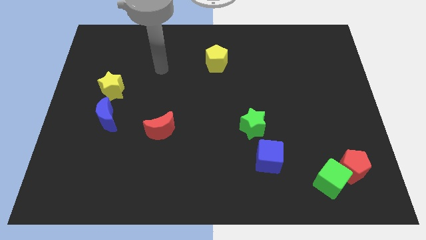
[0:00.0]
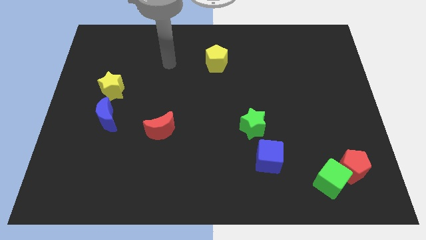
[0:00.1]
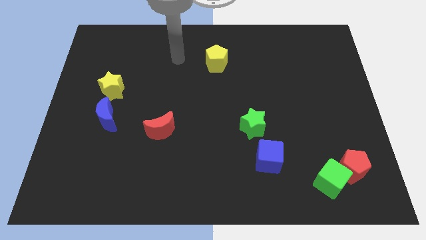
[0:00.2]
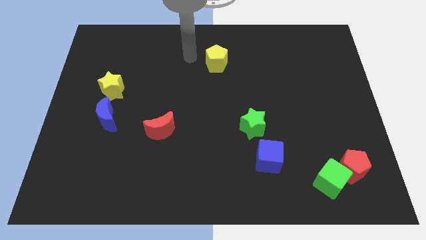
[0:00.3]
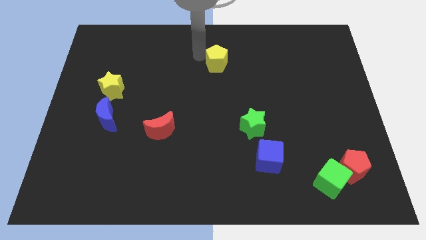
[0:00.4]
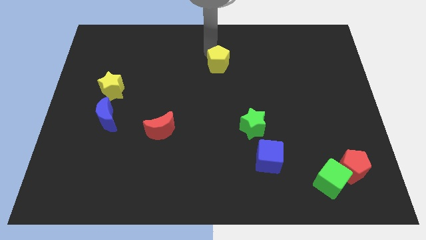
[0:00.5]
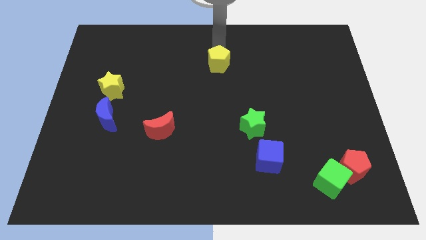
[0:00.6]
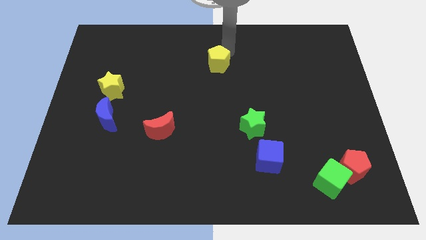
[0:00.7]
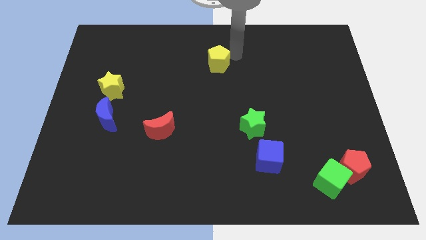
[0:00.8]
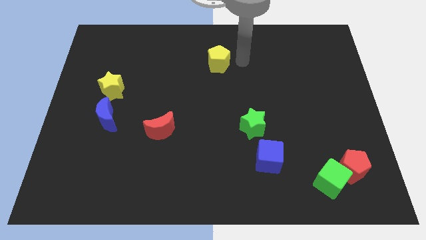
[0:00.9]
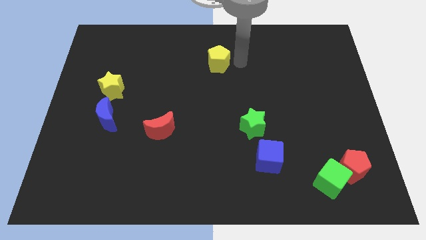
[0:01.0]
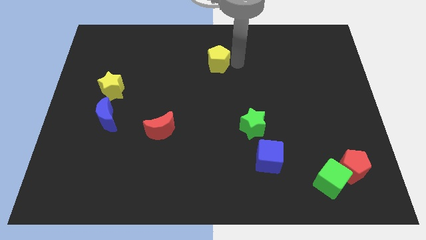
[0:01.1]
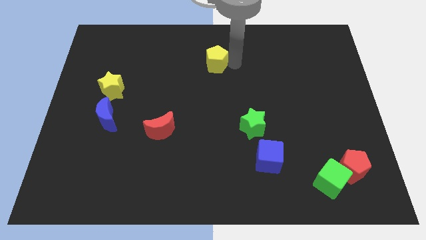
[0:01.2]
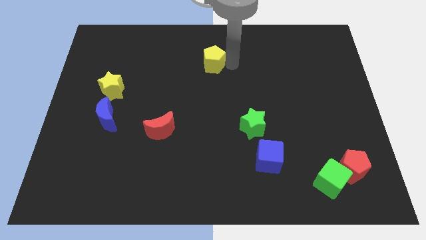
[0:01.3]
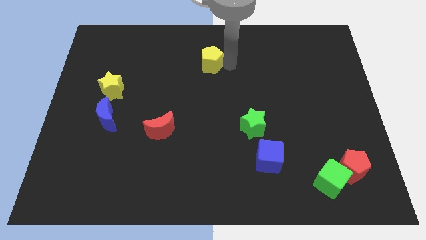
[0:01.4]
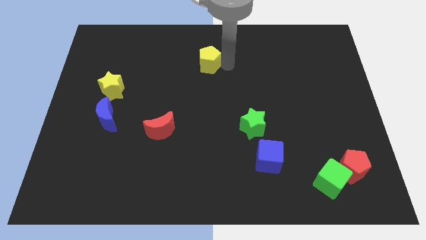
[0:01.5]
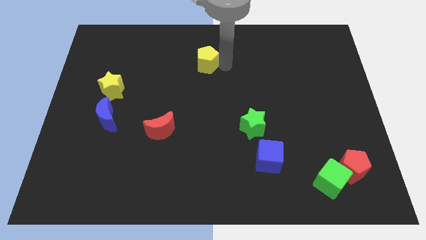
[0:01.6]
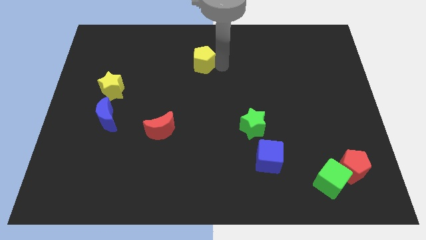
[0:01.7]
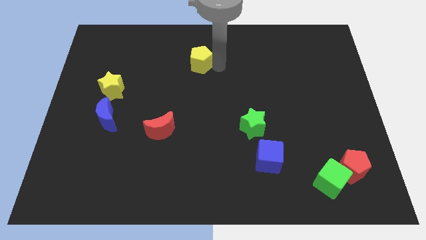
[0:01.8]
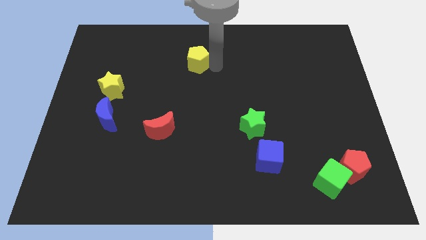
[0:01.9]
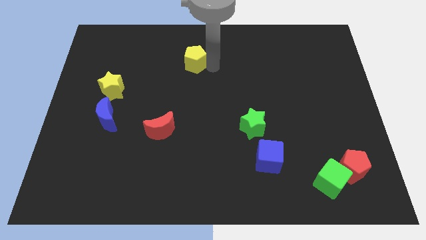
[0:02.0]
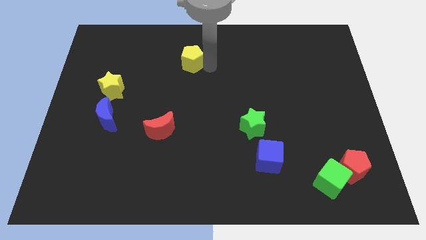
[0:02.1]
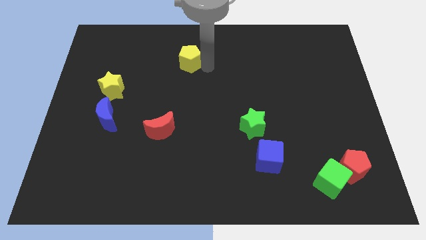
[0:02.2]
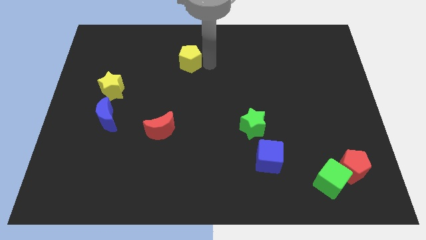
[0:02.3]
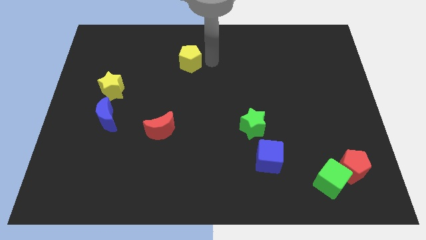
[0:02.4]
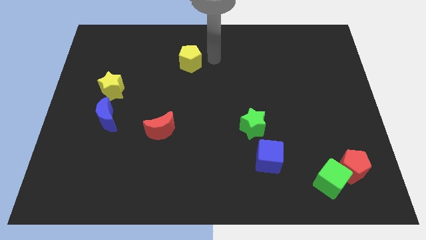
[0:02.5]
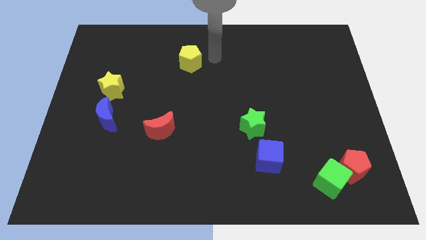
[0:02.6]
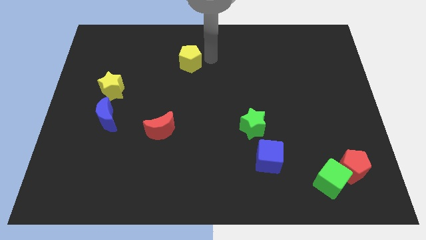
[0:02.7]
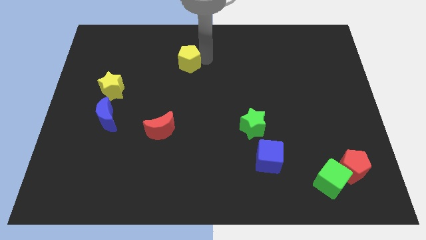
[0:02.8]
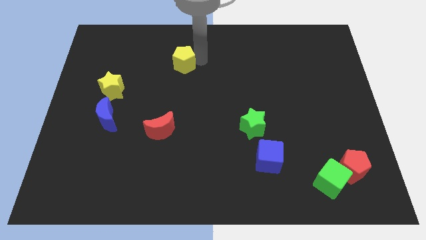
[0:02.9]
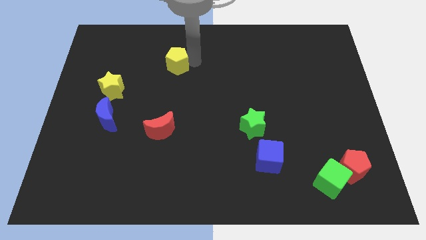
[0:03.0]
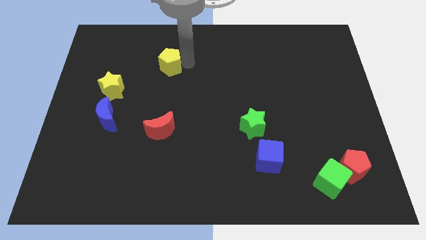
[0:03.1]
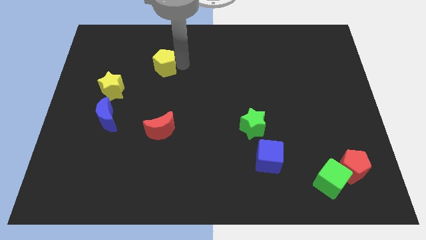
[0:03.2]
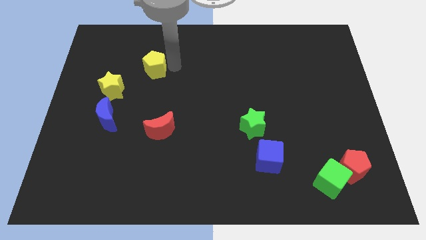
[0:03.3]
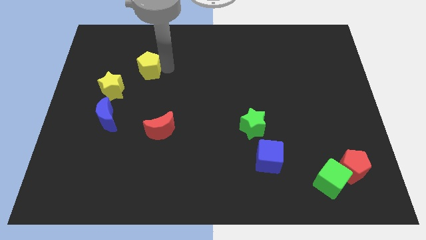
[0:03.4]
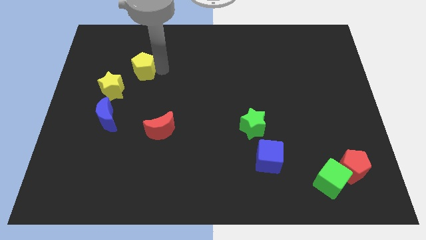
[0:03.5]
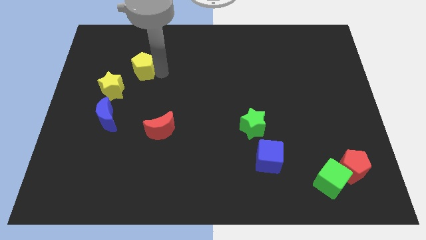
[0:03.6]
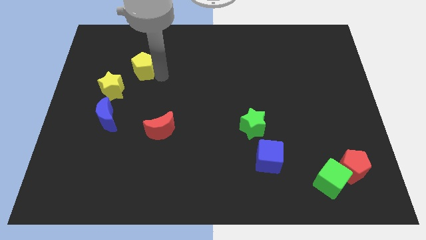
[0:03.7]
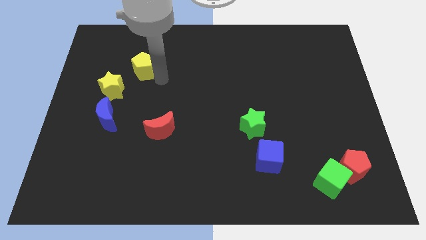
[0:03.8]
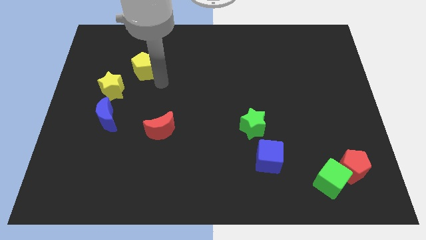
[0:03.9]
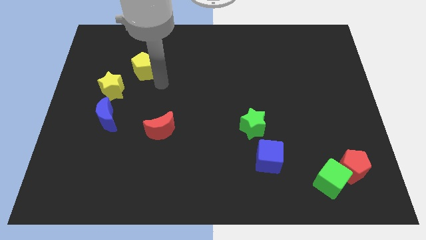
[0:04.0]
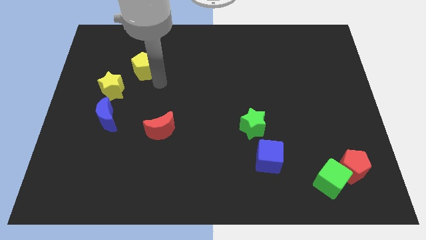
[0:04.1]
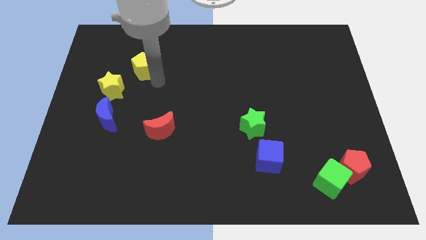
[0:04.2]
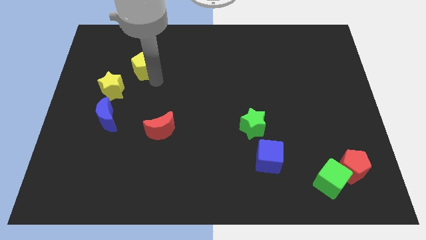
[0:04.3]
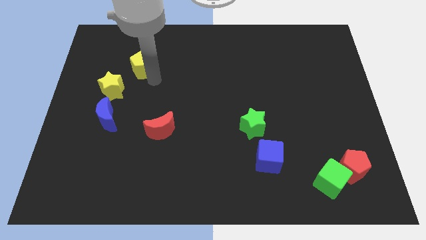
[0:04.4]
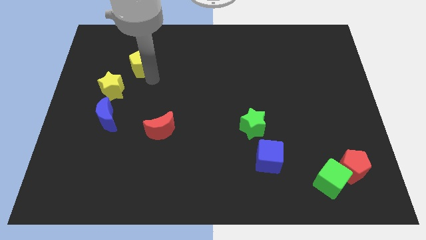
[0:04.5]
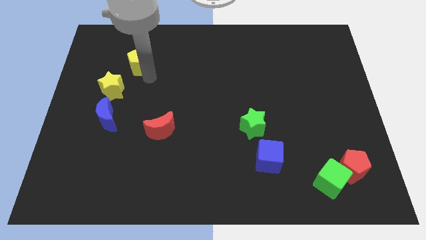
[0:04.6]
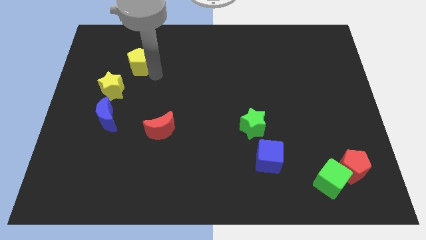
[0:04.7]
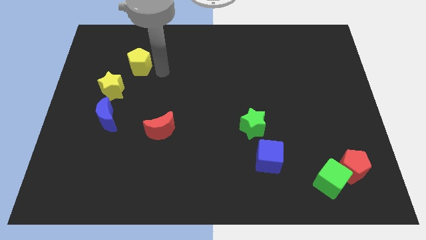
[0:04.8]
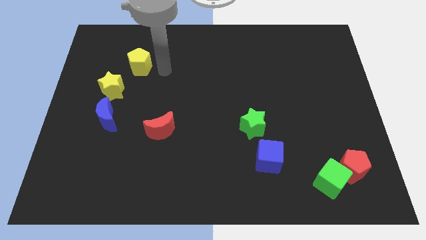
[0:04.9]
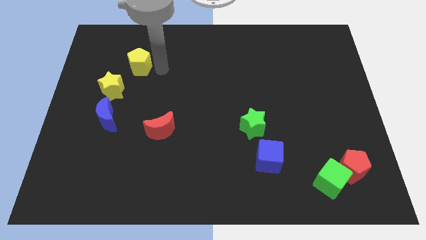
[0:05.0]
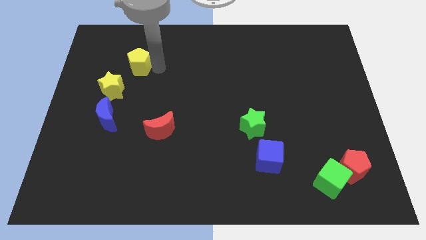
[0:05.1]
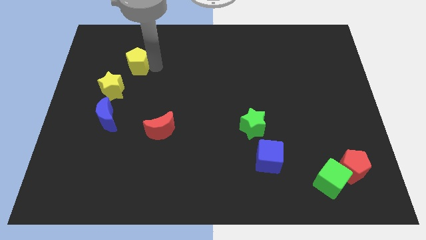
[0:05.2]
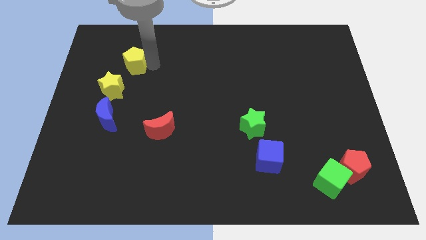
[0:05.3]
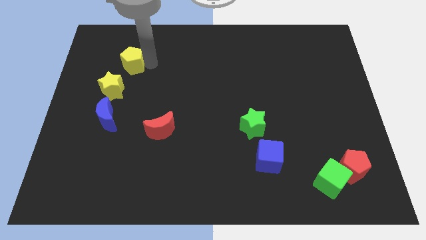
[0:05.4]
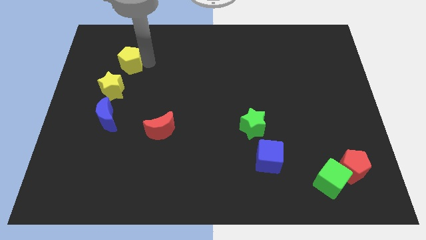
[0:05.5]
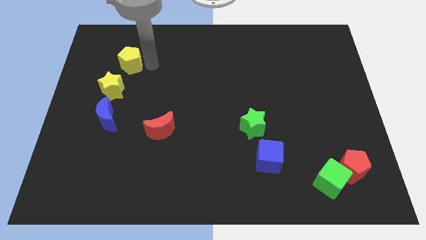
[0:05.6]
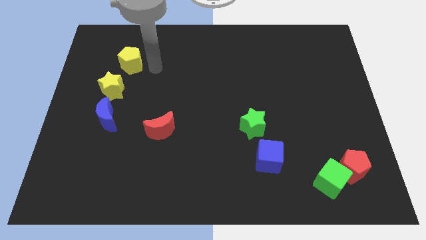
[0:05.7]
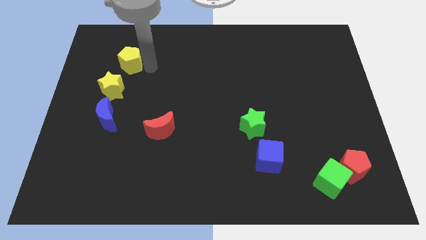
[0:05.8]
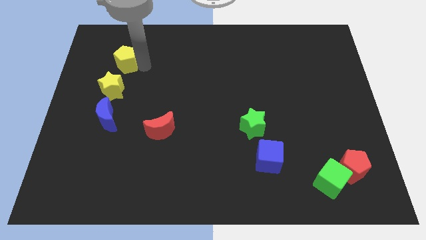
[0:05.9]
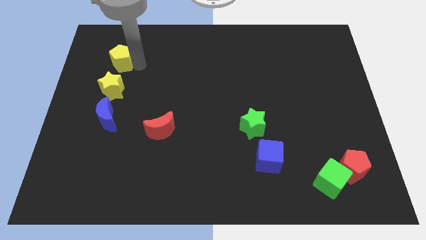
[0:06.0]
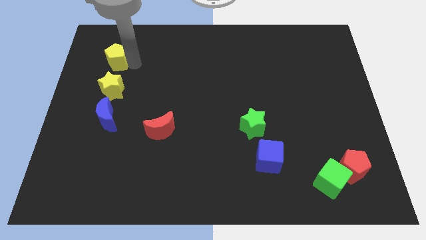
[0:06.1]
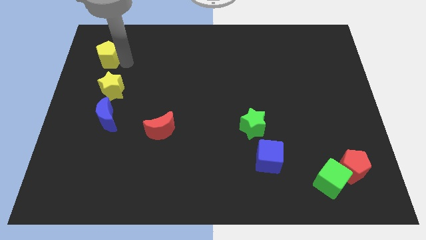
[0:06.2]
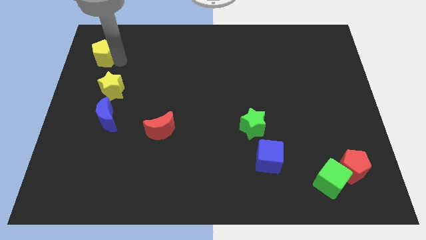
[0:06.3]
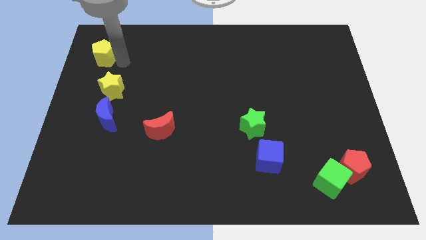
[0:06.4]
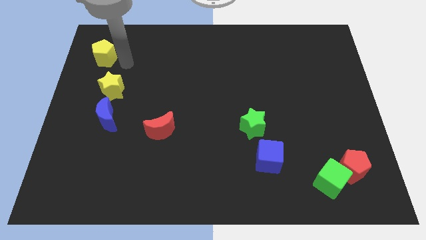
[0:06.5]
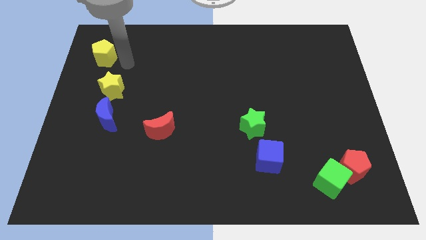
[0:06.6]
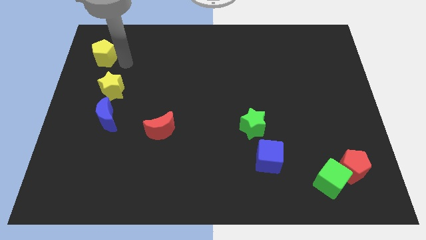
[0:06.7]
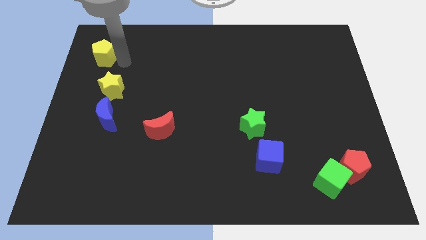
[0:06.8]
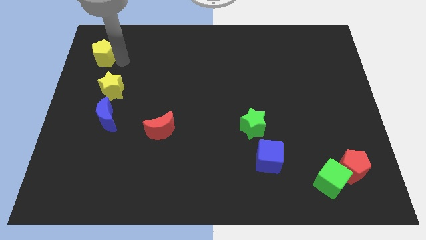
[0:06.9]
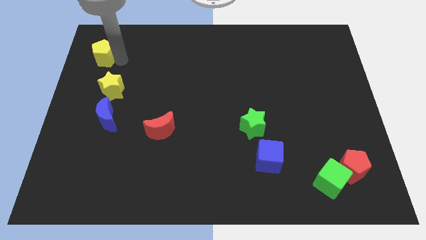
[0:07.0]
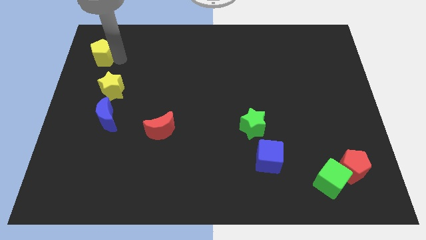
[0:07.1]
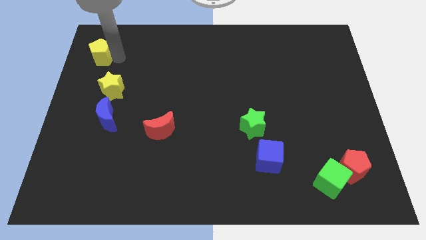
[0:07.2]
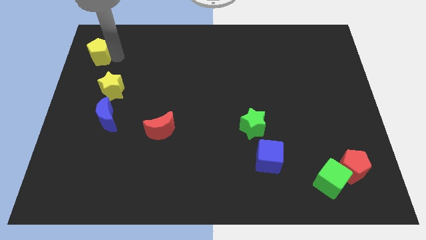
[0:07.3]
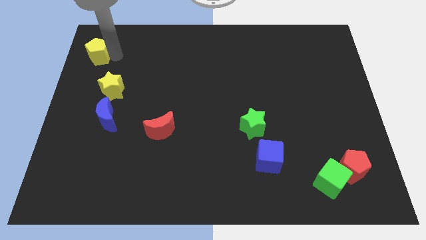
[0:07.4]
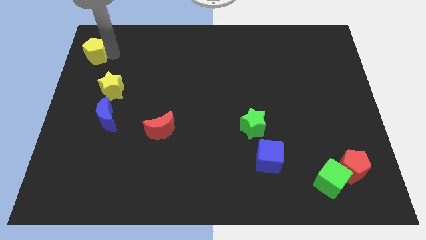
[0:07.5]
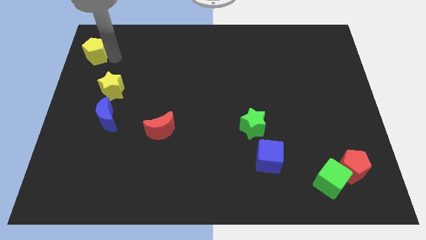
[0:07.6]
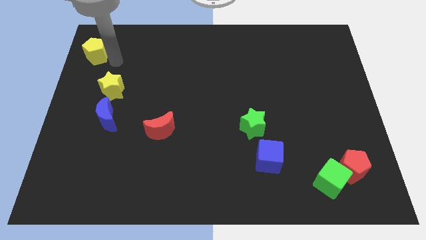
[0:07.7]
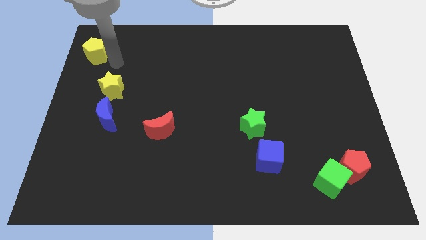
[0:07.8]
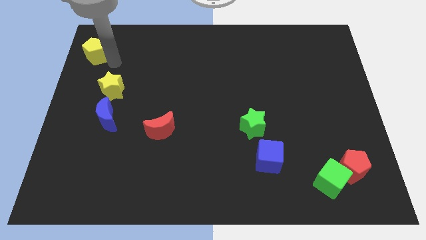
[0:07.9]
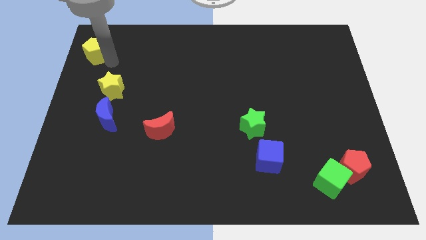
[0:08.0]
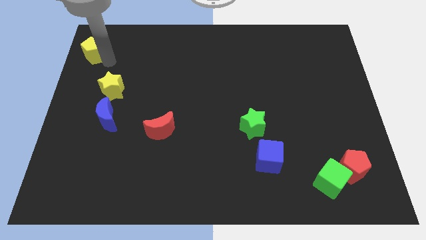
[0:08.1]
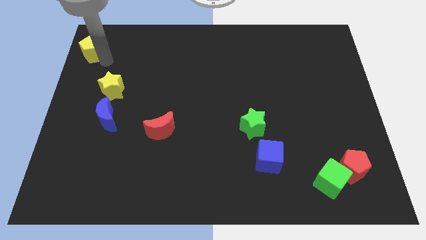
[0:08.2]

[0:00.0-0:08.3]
move the yellow pentagon to the top left
